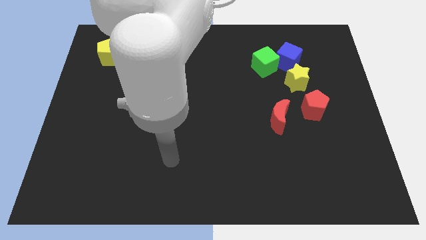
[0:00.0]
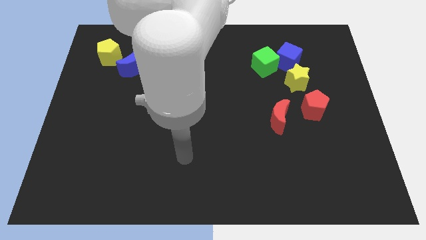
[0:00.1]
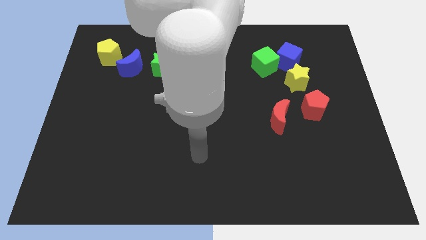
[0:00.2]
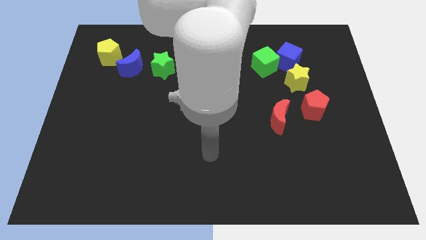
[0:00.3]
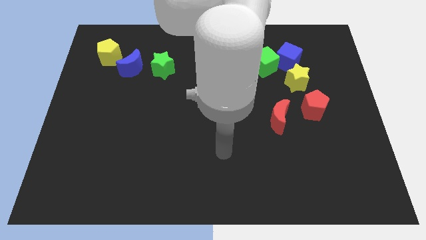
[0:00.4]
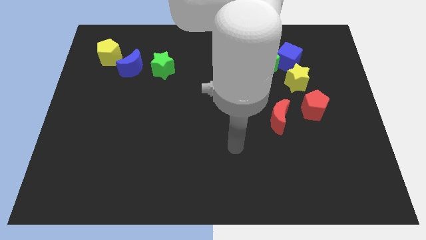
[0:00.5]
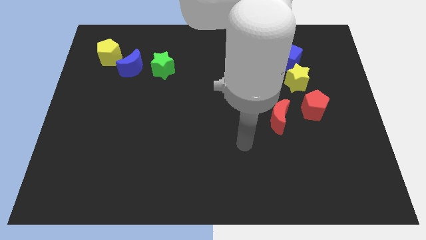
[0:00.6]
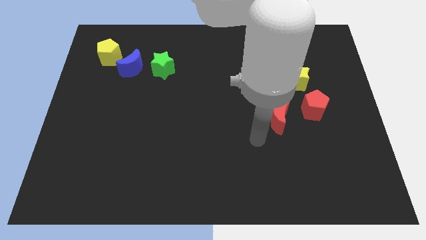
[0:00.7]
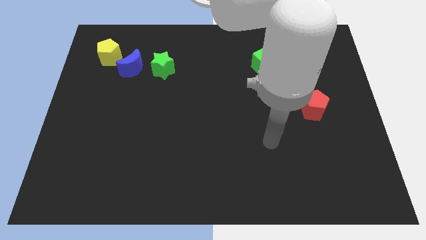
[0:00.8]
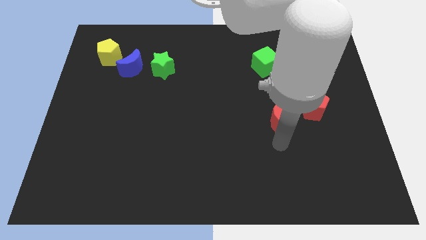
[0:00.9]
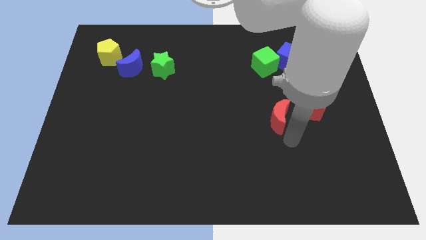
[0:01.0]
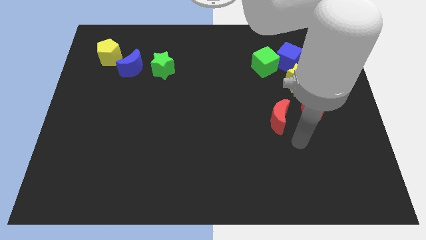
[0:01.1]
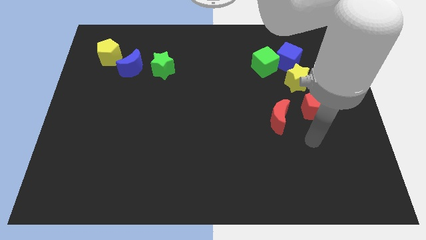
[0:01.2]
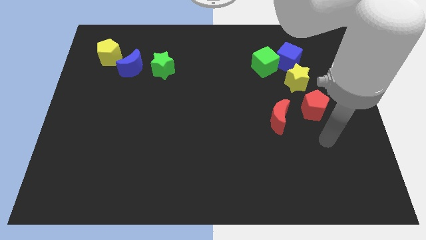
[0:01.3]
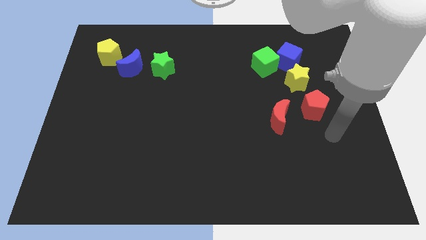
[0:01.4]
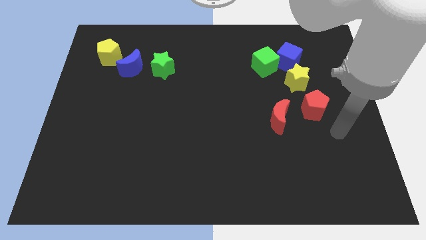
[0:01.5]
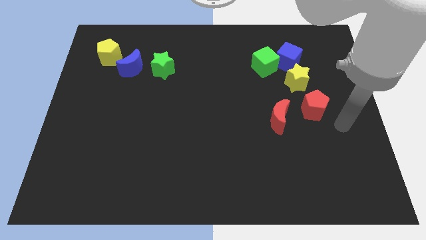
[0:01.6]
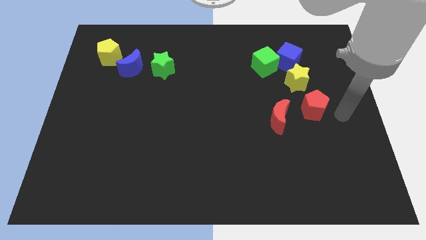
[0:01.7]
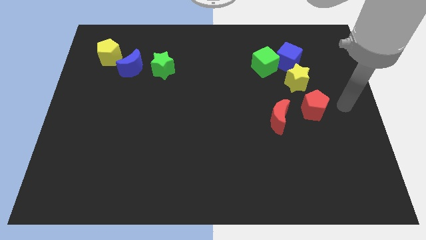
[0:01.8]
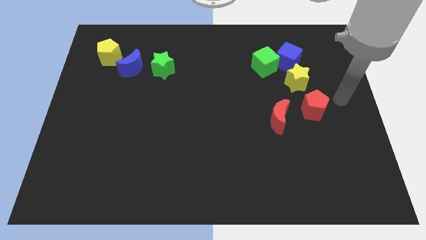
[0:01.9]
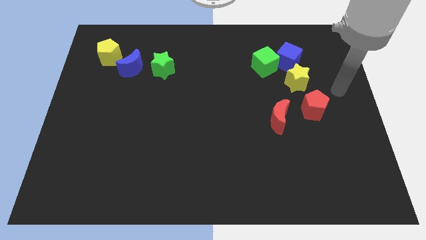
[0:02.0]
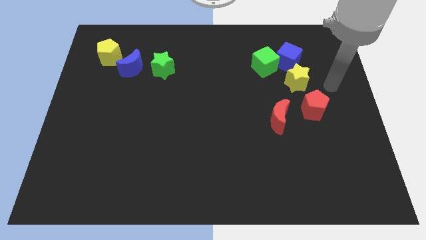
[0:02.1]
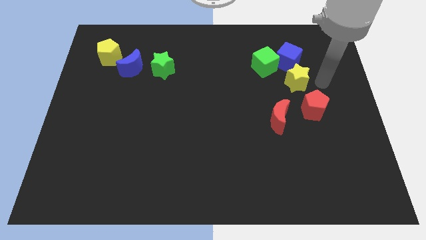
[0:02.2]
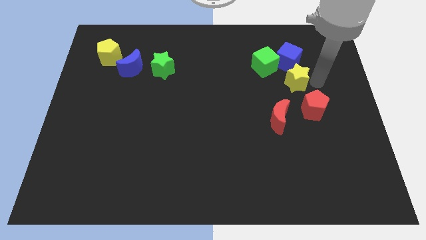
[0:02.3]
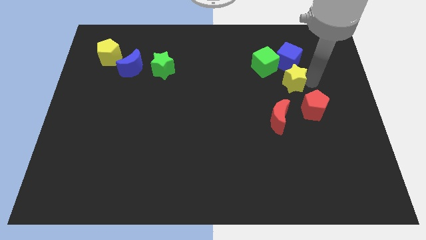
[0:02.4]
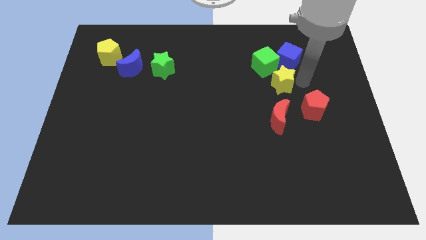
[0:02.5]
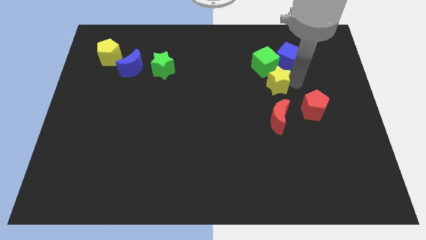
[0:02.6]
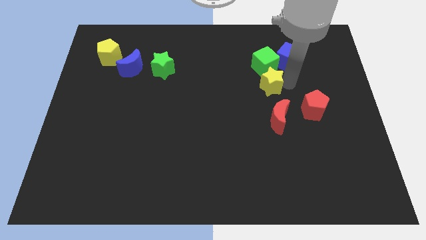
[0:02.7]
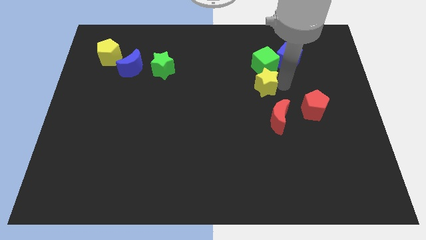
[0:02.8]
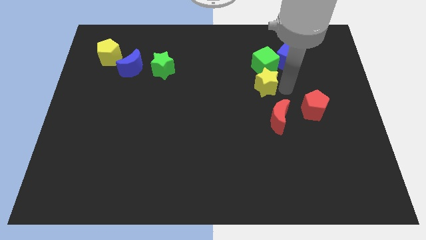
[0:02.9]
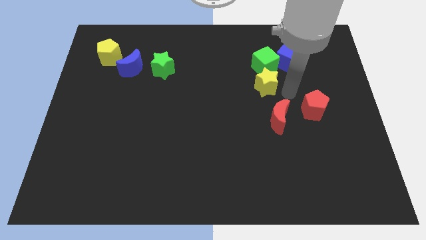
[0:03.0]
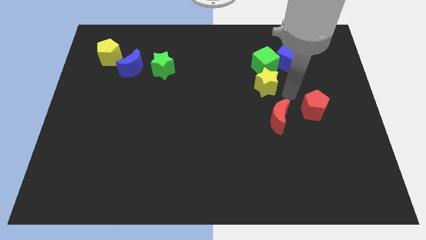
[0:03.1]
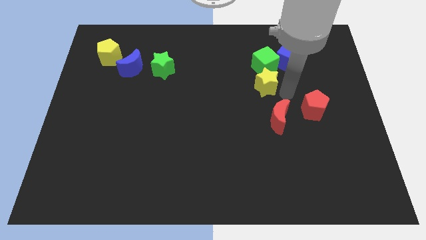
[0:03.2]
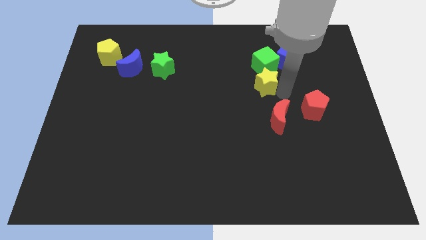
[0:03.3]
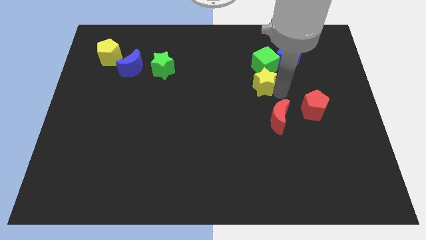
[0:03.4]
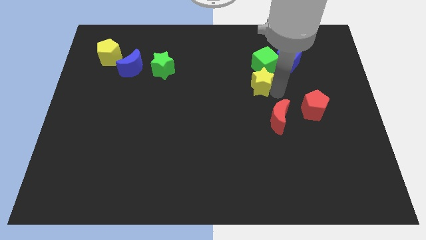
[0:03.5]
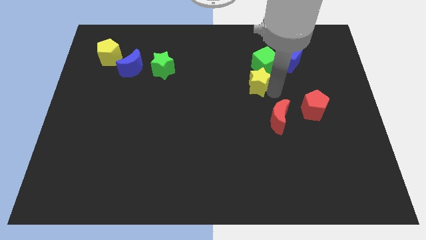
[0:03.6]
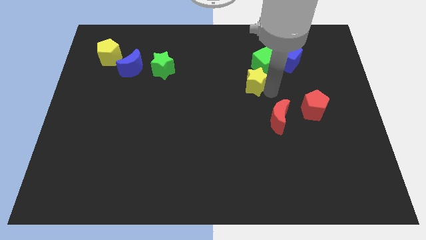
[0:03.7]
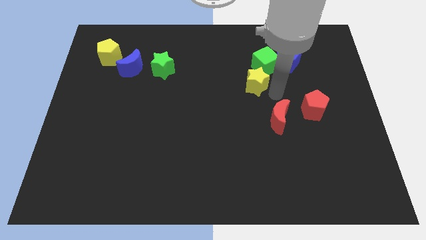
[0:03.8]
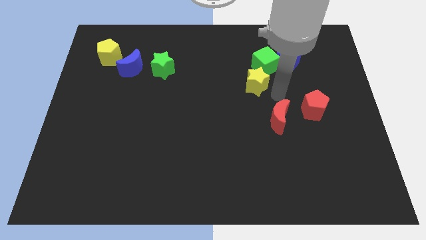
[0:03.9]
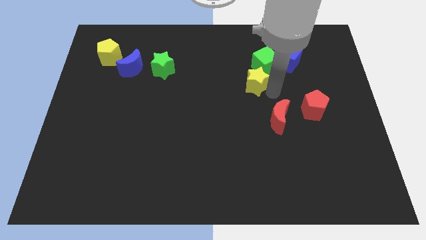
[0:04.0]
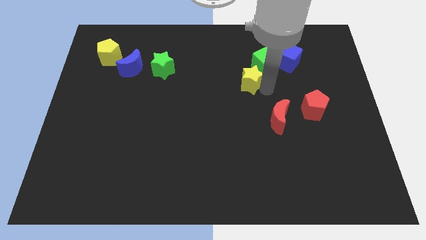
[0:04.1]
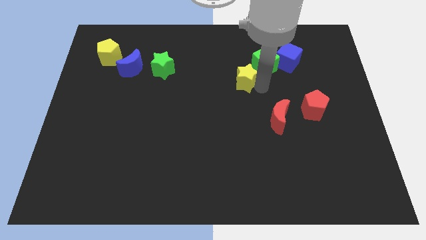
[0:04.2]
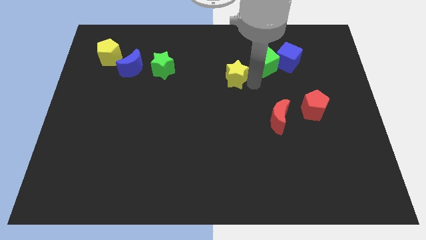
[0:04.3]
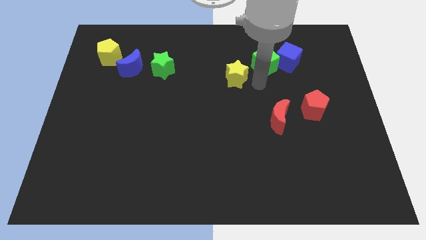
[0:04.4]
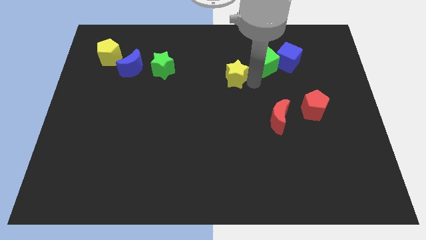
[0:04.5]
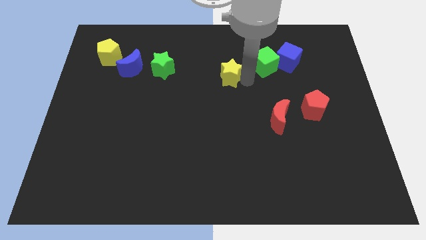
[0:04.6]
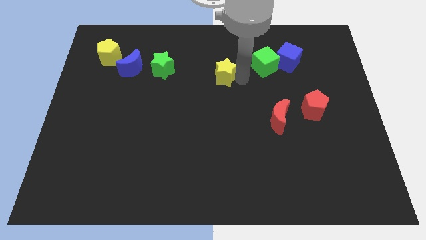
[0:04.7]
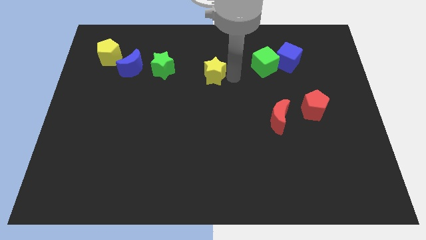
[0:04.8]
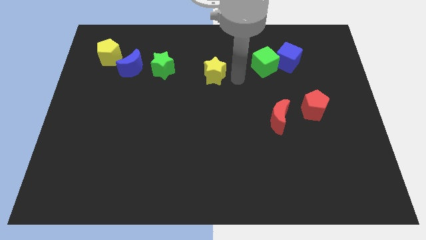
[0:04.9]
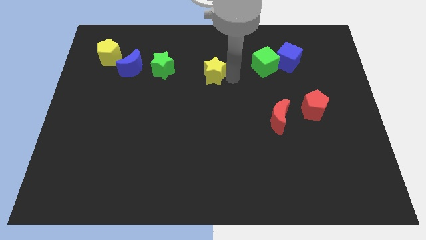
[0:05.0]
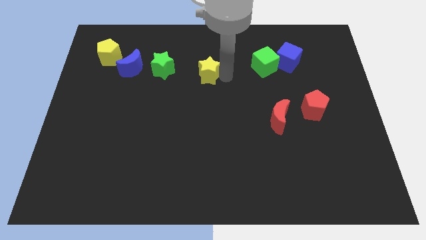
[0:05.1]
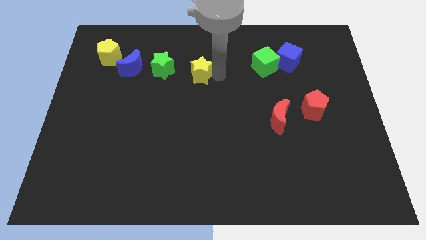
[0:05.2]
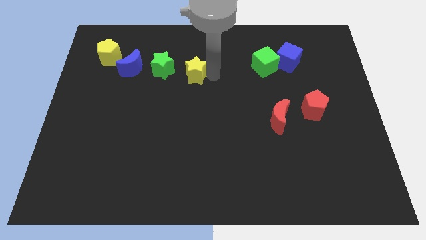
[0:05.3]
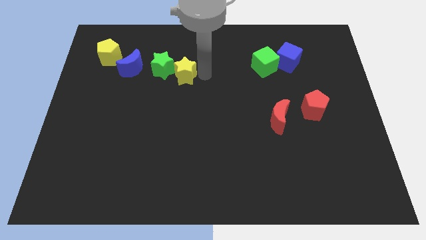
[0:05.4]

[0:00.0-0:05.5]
move the yellow star to the green star

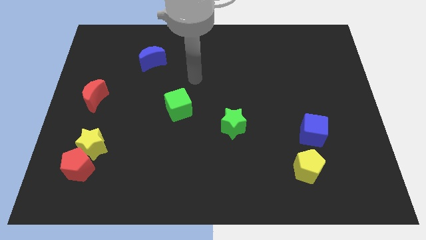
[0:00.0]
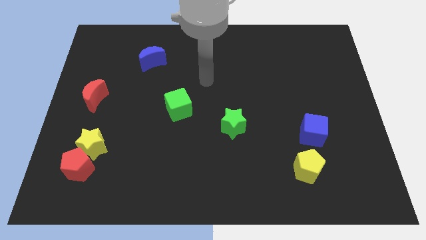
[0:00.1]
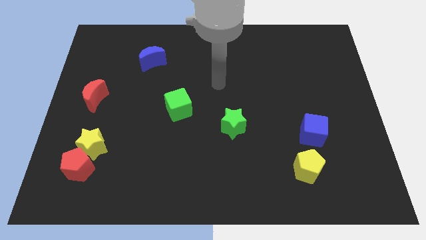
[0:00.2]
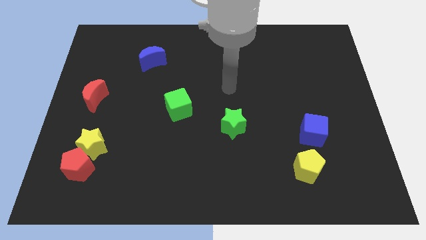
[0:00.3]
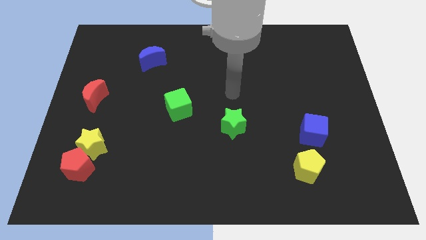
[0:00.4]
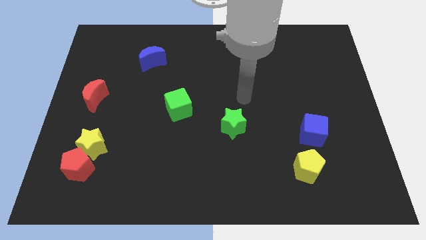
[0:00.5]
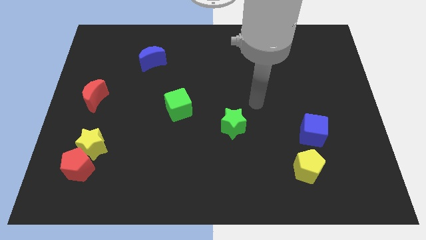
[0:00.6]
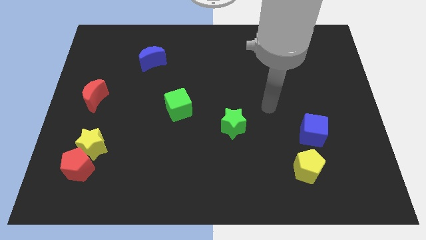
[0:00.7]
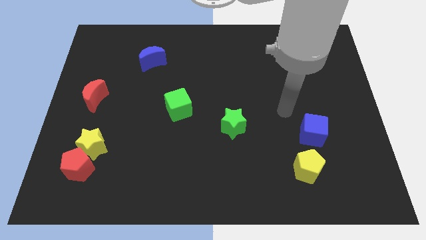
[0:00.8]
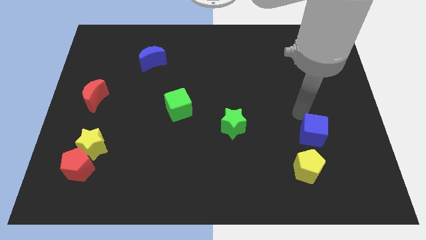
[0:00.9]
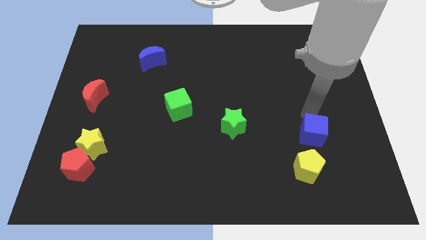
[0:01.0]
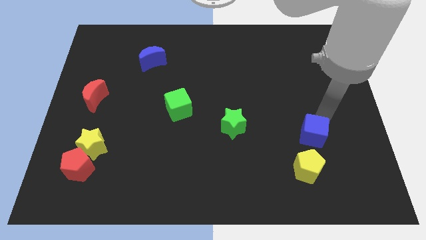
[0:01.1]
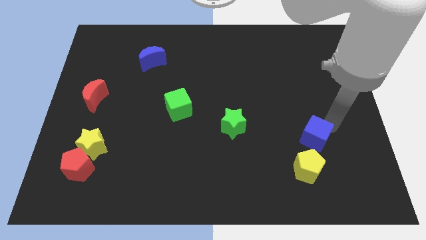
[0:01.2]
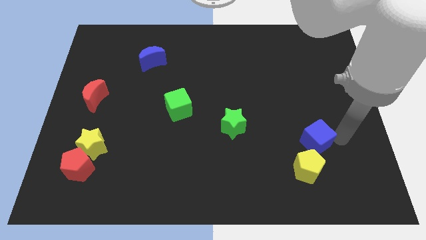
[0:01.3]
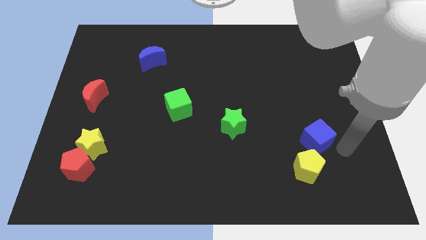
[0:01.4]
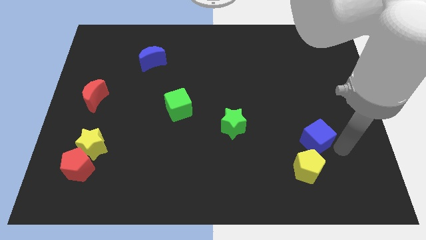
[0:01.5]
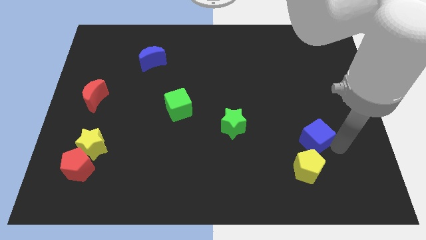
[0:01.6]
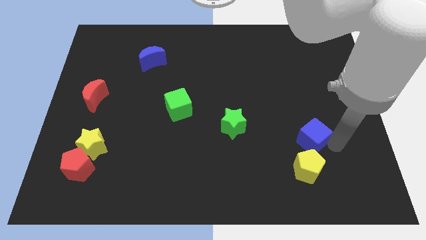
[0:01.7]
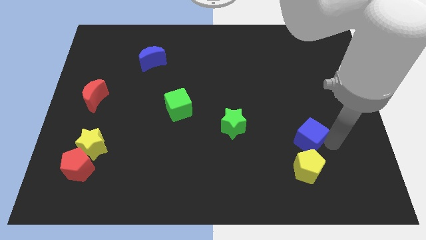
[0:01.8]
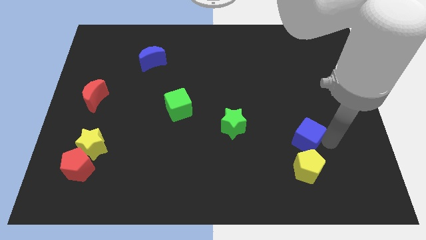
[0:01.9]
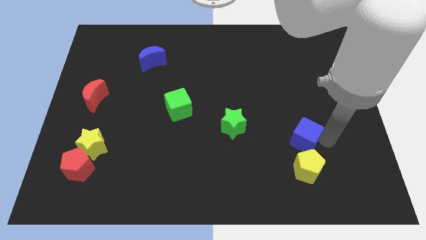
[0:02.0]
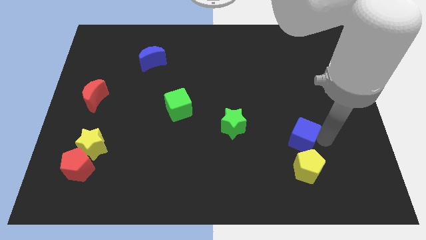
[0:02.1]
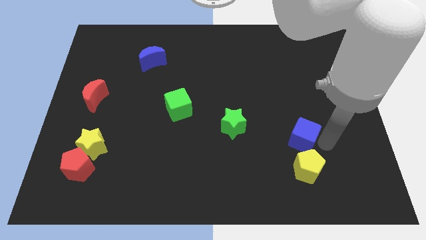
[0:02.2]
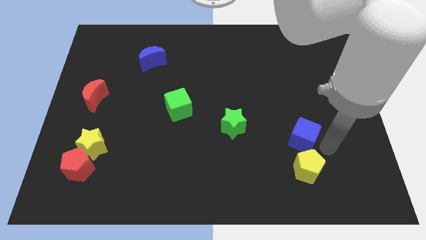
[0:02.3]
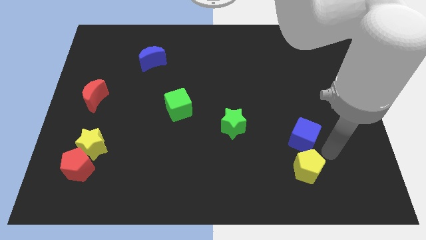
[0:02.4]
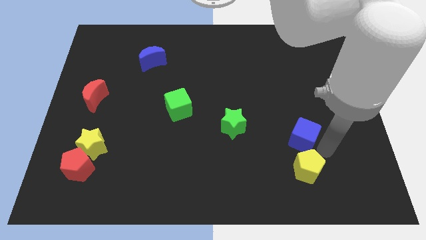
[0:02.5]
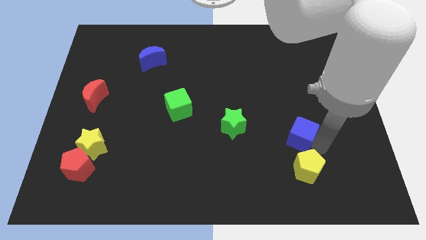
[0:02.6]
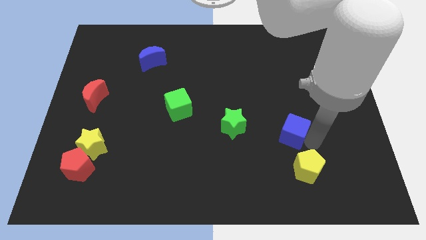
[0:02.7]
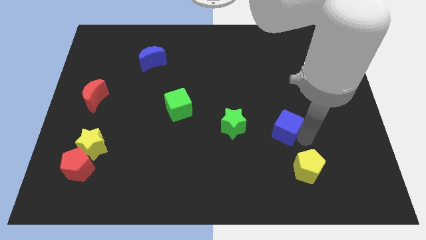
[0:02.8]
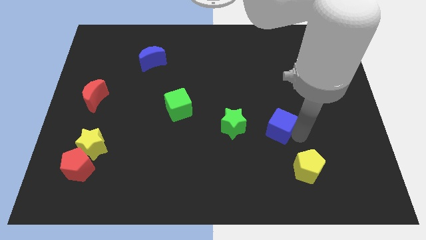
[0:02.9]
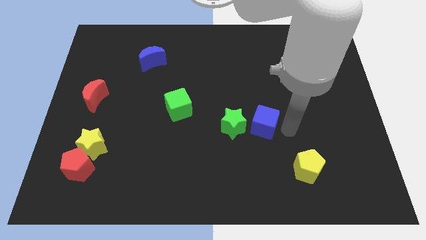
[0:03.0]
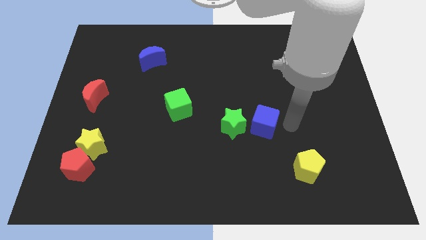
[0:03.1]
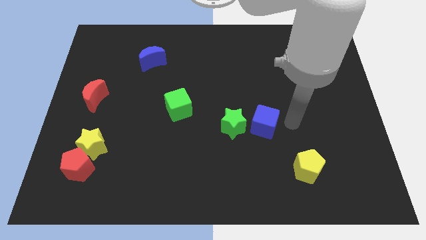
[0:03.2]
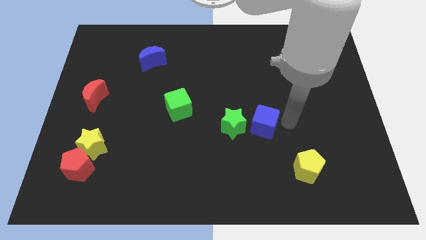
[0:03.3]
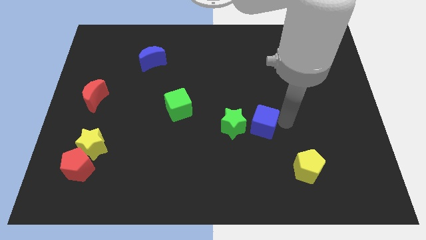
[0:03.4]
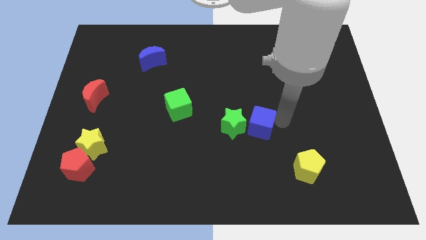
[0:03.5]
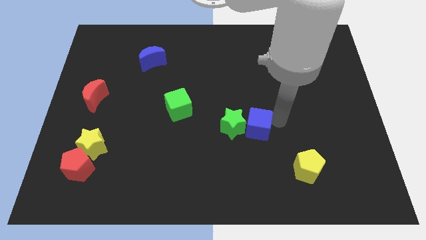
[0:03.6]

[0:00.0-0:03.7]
slide the blue cube to the green star
